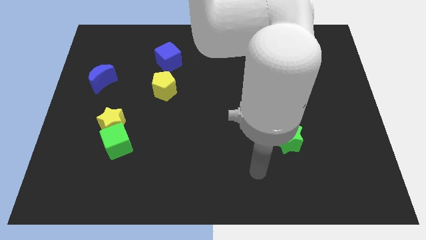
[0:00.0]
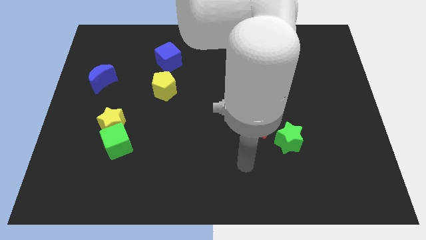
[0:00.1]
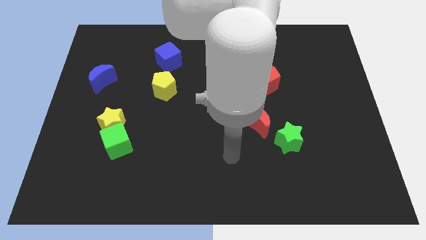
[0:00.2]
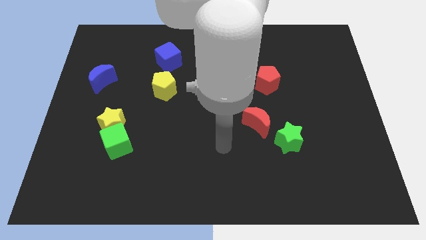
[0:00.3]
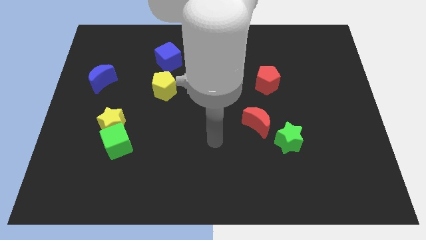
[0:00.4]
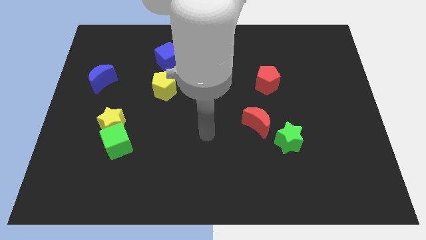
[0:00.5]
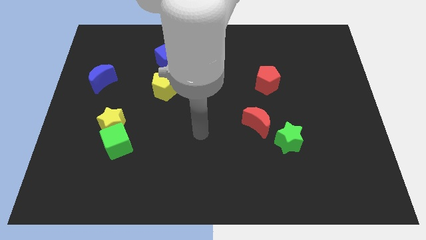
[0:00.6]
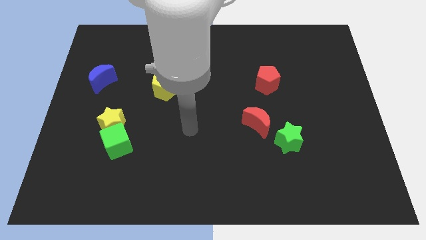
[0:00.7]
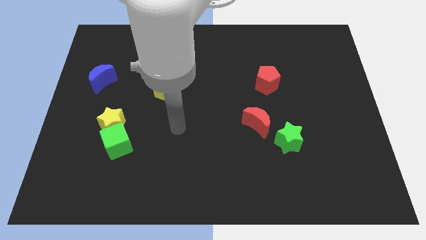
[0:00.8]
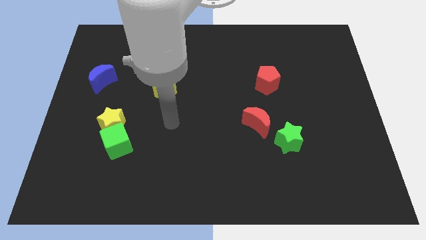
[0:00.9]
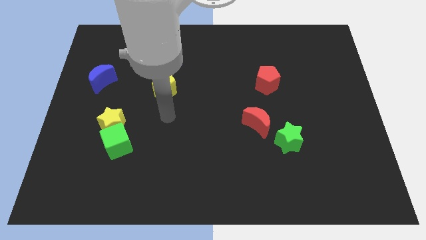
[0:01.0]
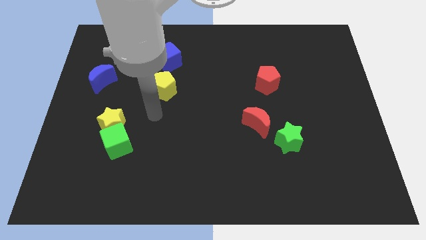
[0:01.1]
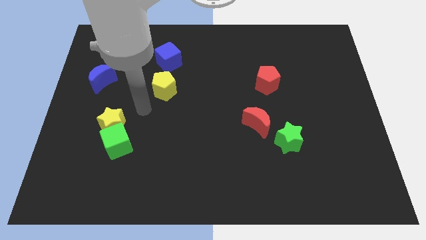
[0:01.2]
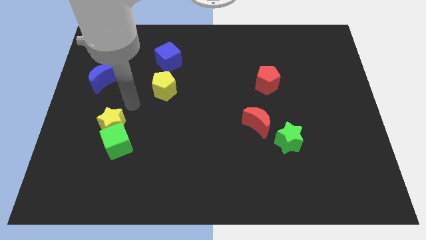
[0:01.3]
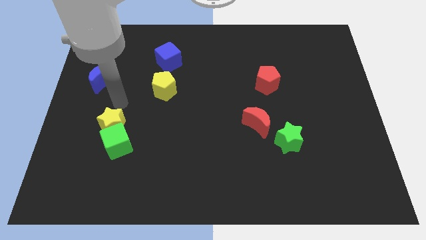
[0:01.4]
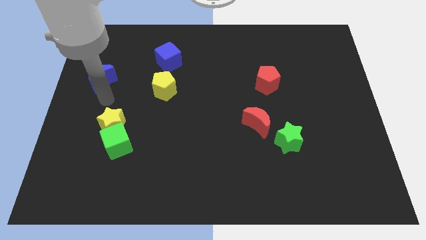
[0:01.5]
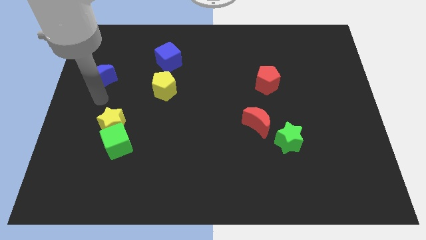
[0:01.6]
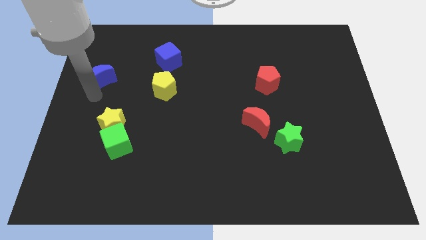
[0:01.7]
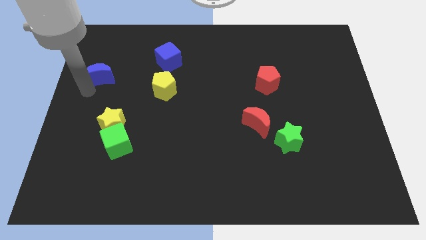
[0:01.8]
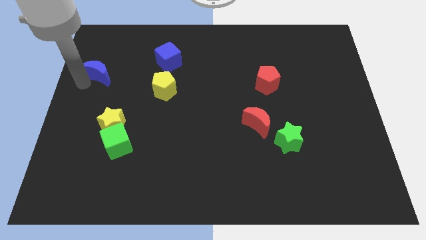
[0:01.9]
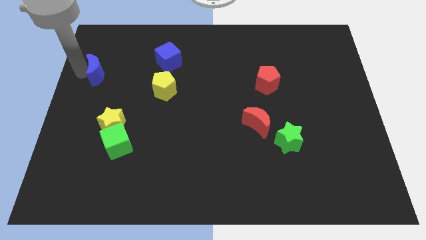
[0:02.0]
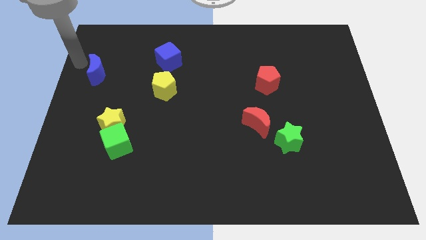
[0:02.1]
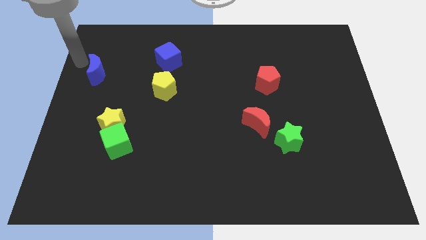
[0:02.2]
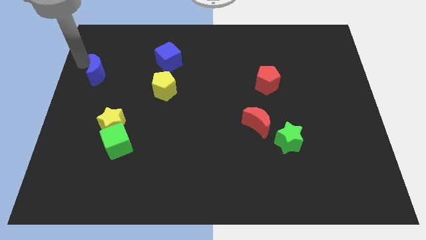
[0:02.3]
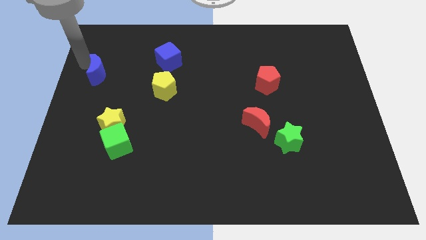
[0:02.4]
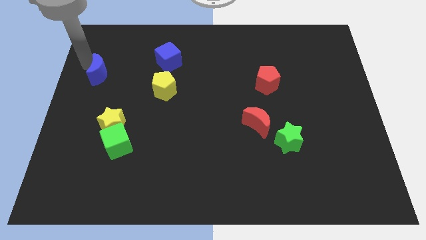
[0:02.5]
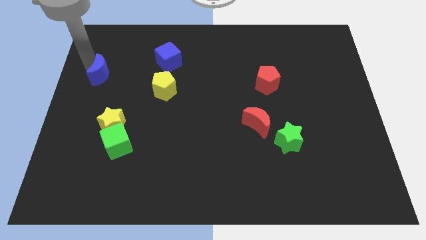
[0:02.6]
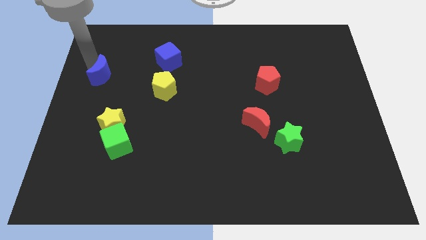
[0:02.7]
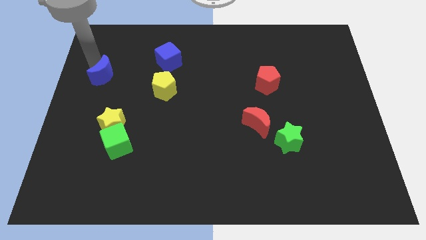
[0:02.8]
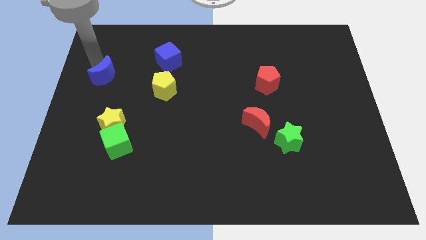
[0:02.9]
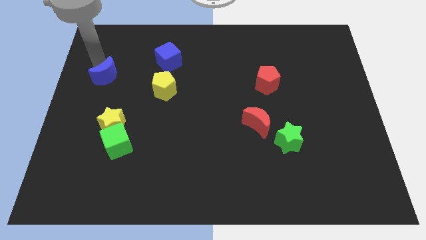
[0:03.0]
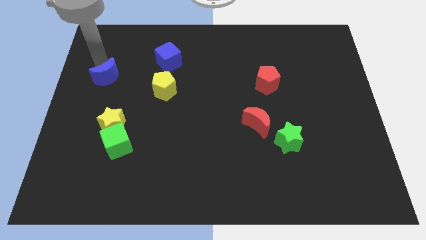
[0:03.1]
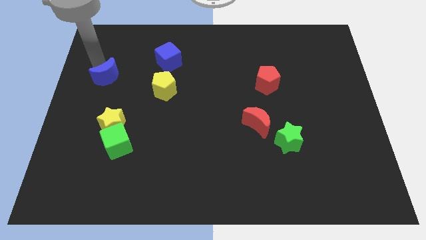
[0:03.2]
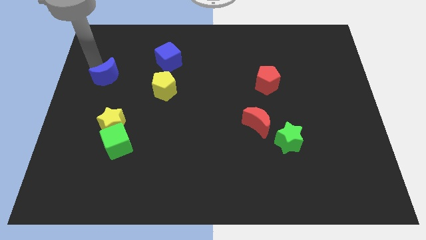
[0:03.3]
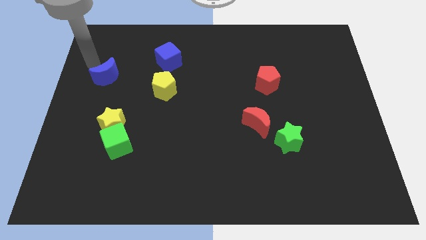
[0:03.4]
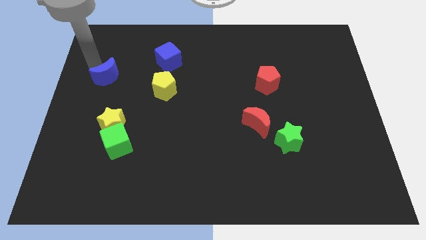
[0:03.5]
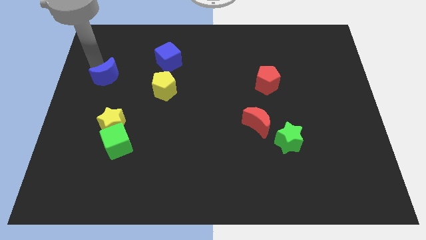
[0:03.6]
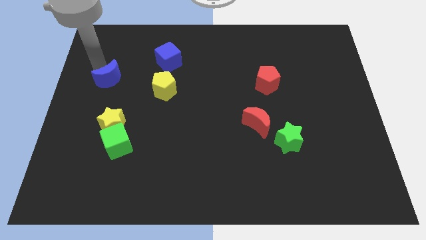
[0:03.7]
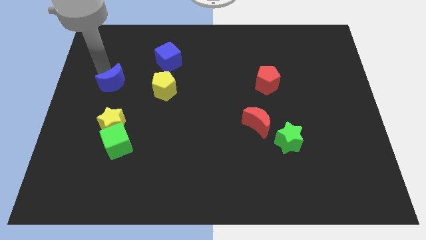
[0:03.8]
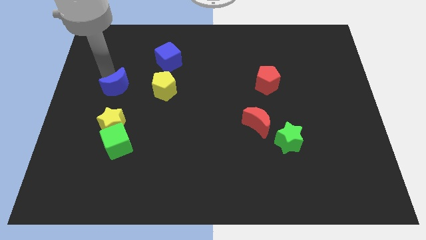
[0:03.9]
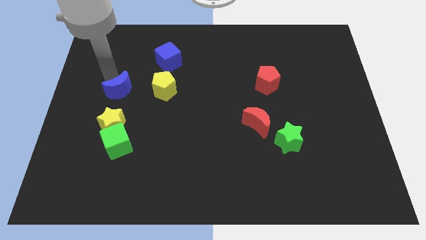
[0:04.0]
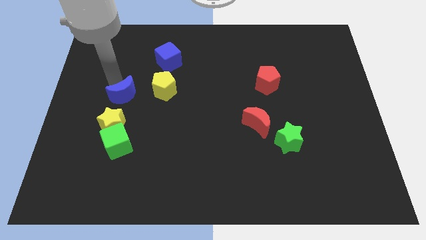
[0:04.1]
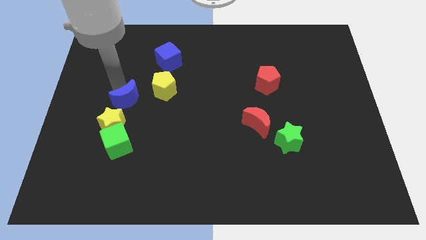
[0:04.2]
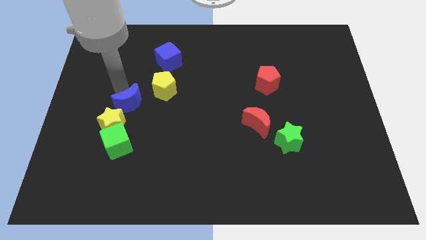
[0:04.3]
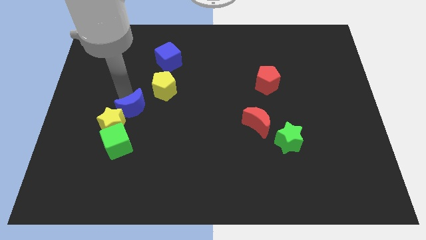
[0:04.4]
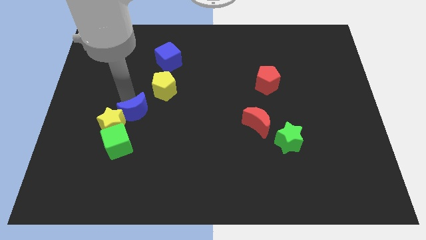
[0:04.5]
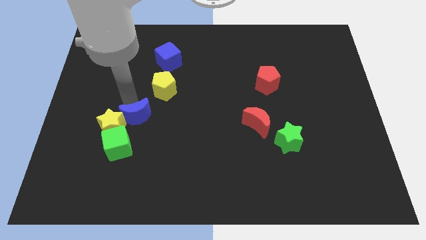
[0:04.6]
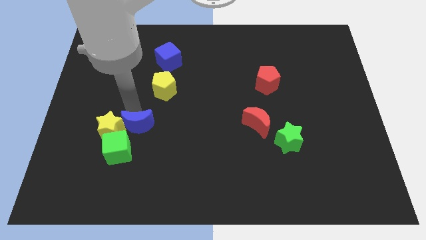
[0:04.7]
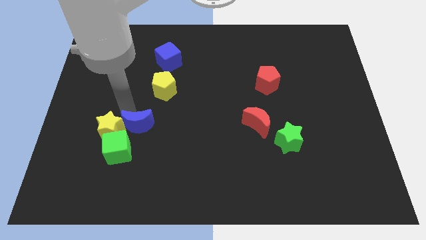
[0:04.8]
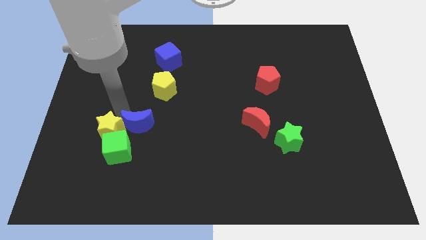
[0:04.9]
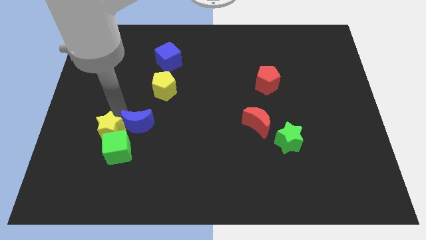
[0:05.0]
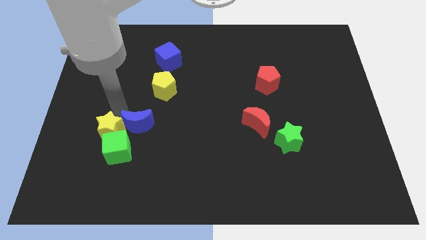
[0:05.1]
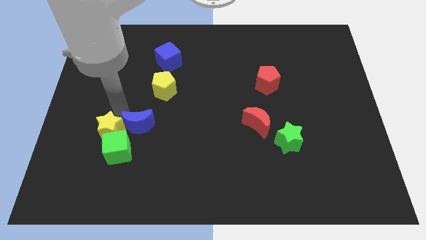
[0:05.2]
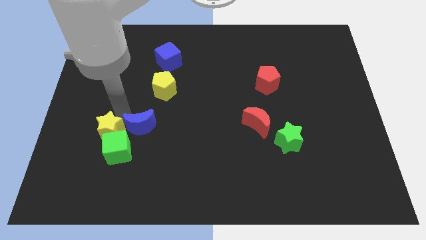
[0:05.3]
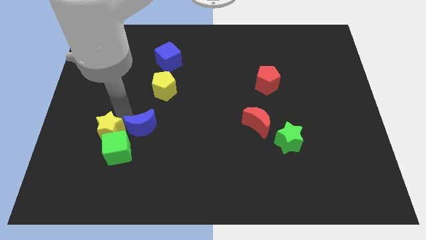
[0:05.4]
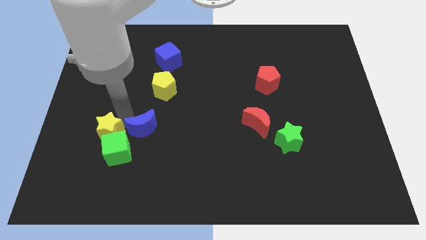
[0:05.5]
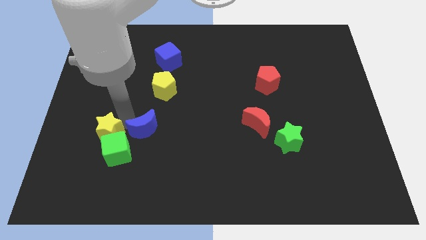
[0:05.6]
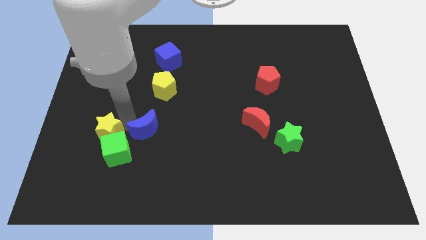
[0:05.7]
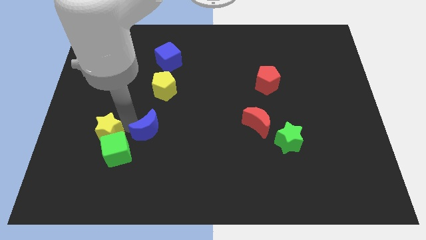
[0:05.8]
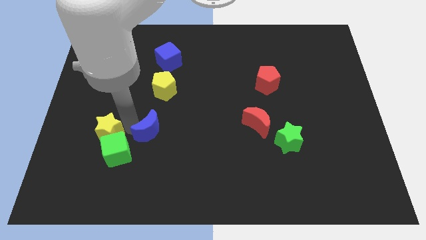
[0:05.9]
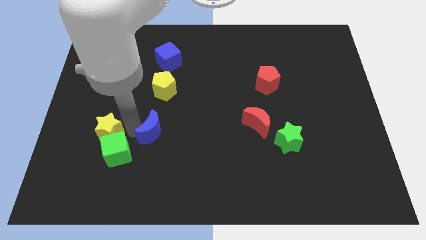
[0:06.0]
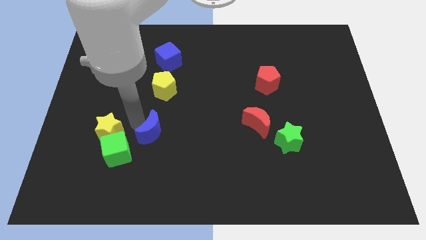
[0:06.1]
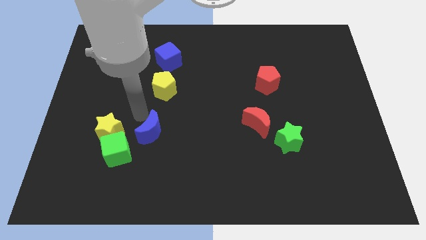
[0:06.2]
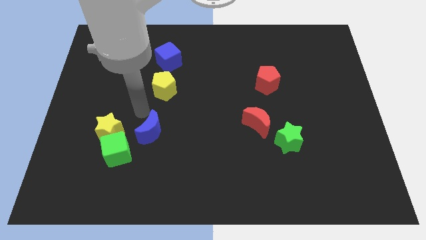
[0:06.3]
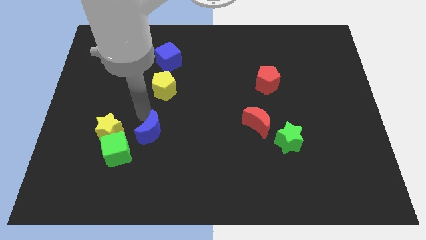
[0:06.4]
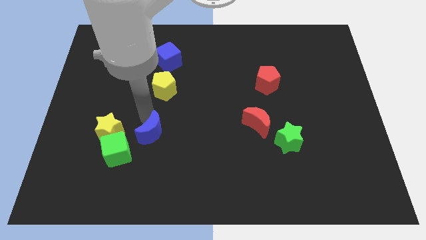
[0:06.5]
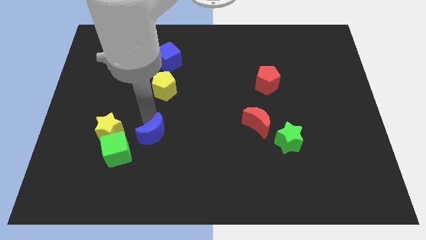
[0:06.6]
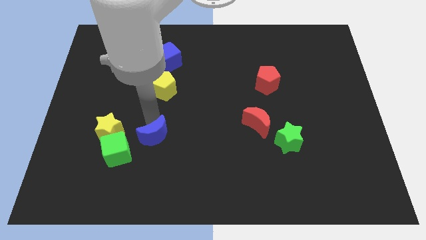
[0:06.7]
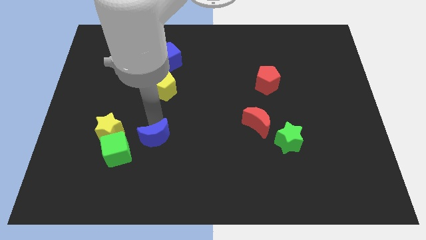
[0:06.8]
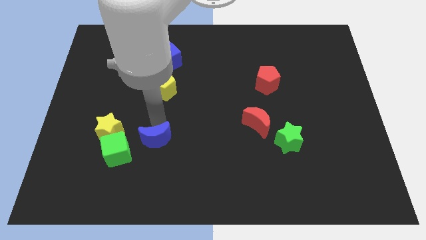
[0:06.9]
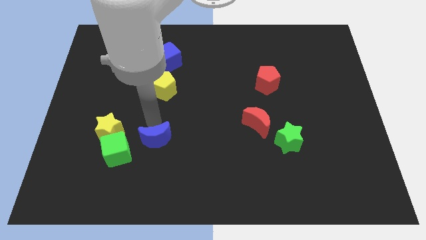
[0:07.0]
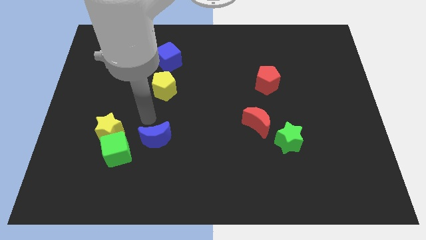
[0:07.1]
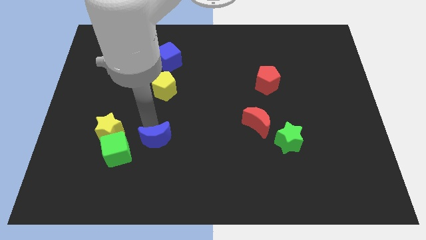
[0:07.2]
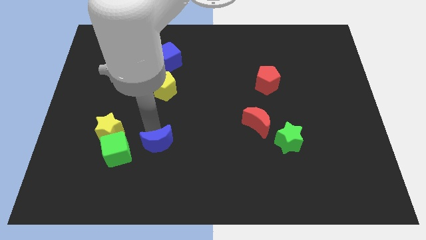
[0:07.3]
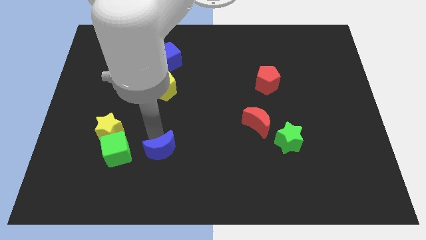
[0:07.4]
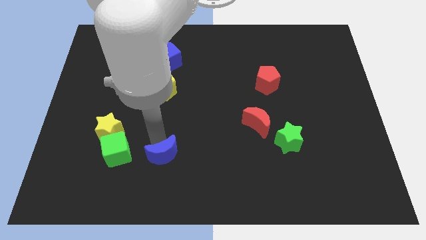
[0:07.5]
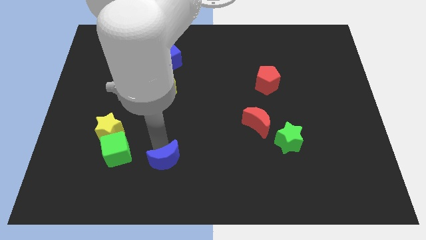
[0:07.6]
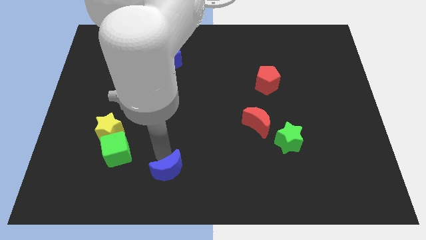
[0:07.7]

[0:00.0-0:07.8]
put the blue moon to the bottom
